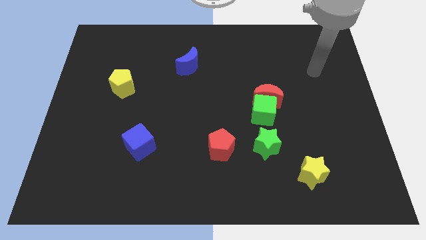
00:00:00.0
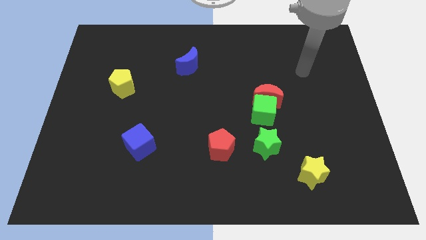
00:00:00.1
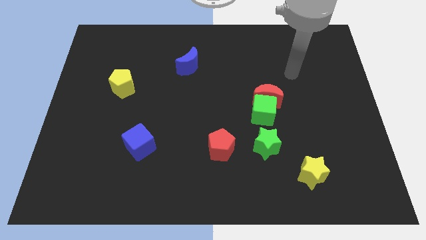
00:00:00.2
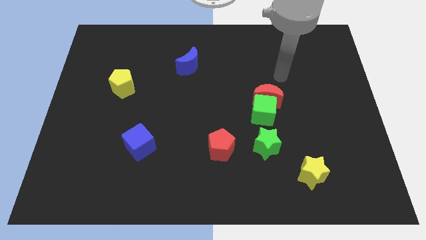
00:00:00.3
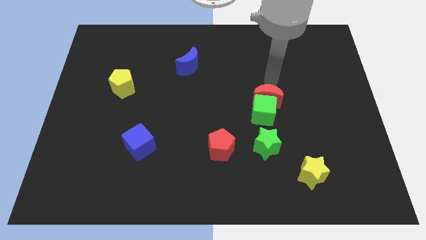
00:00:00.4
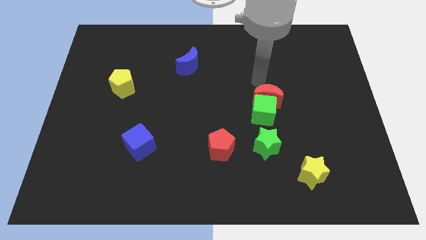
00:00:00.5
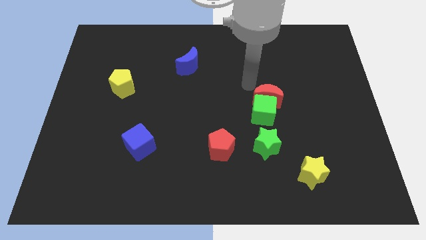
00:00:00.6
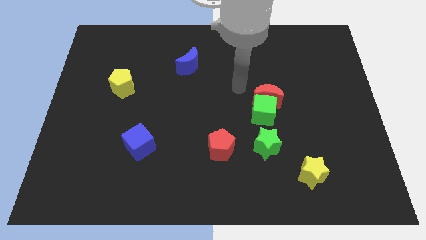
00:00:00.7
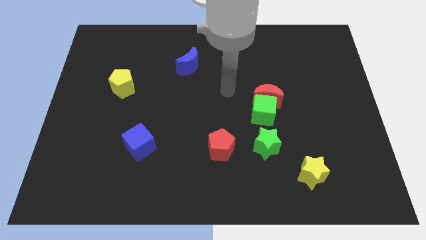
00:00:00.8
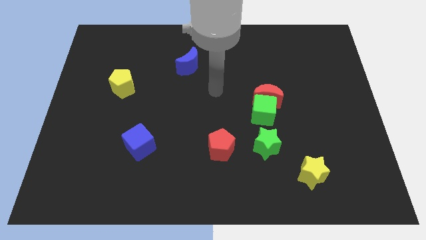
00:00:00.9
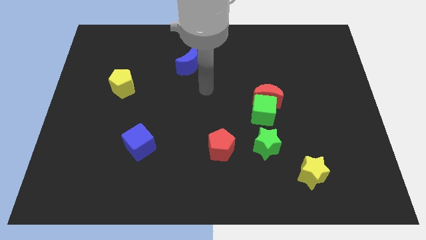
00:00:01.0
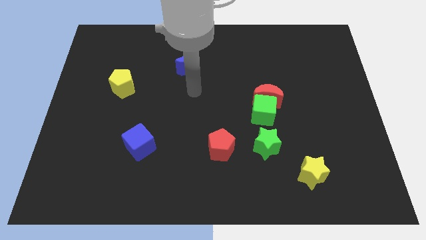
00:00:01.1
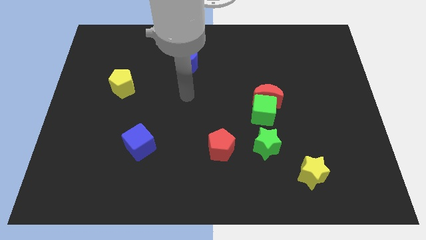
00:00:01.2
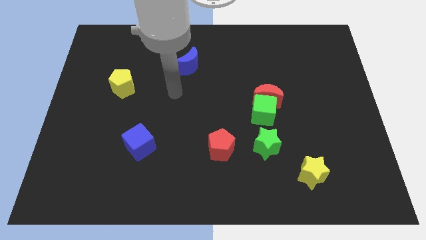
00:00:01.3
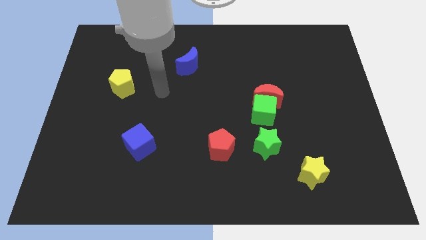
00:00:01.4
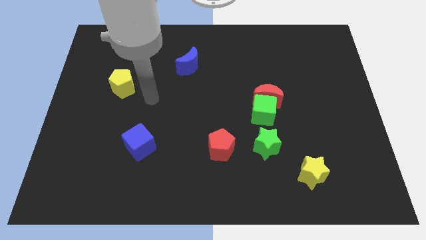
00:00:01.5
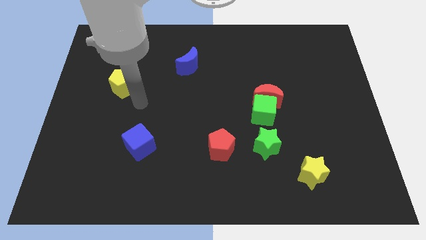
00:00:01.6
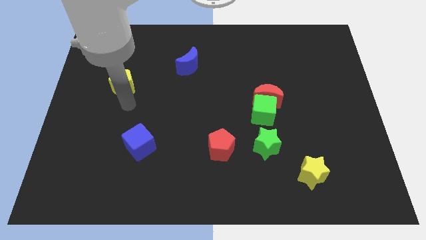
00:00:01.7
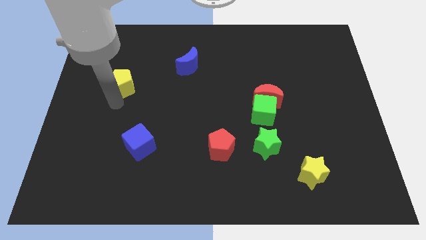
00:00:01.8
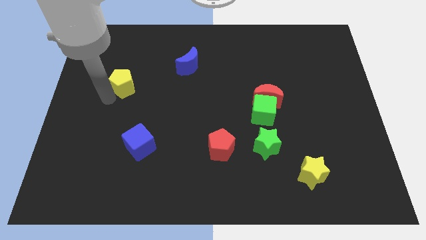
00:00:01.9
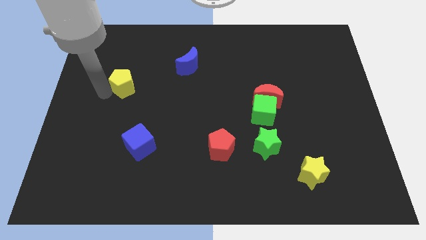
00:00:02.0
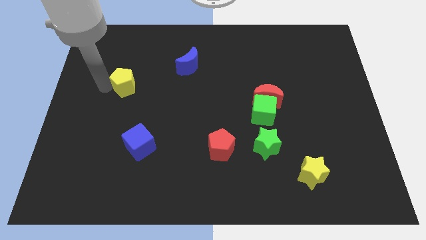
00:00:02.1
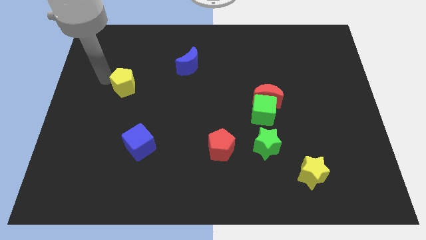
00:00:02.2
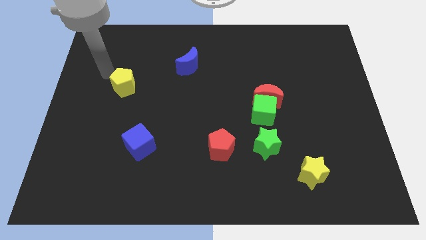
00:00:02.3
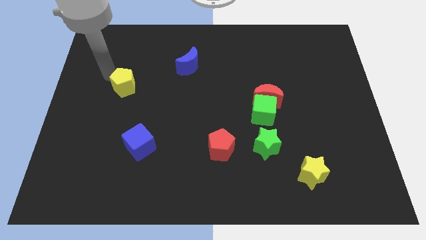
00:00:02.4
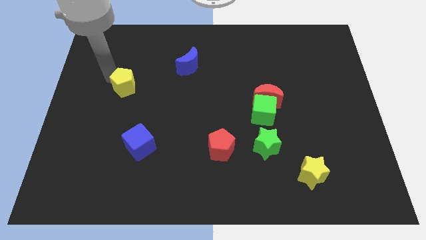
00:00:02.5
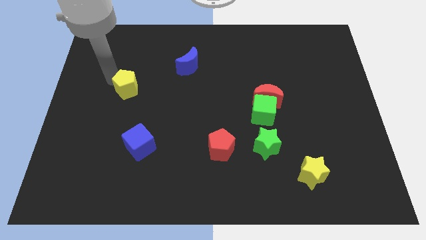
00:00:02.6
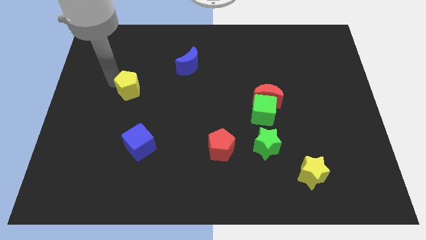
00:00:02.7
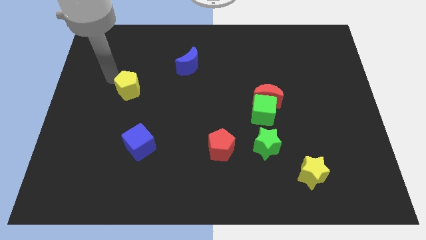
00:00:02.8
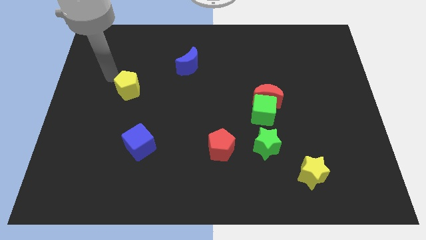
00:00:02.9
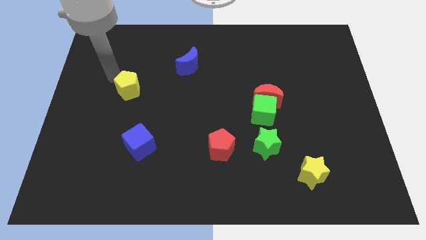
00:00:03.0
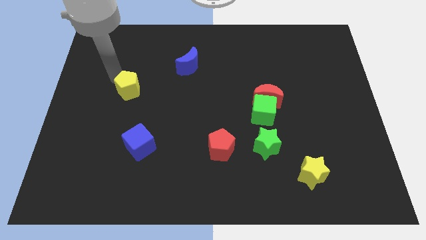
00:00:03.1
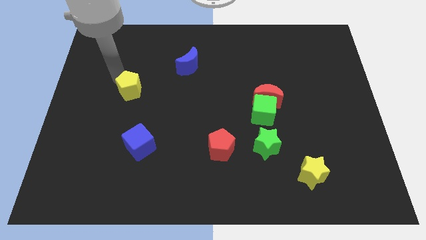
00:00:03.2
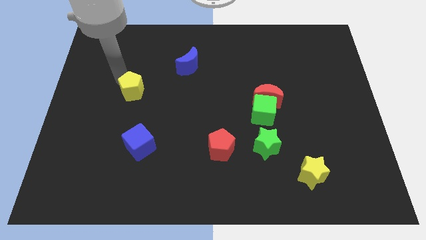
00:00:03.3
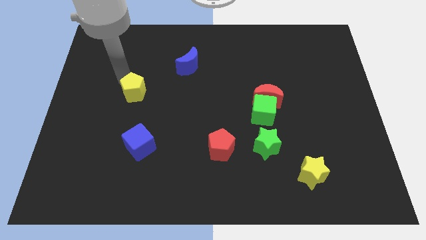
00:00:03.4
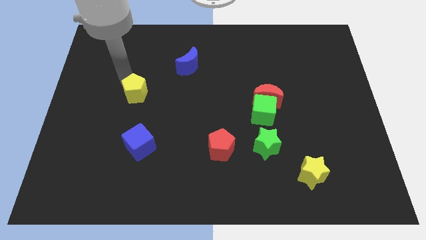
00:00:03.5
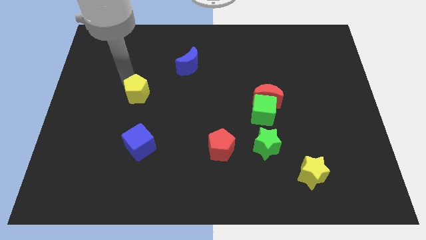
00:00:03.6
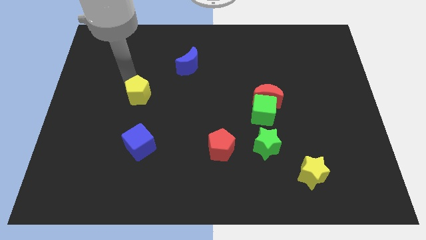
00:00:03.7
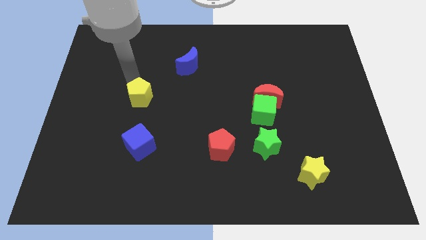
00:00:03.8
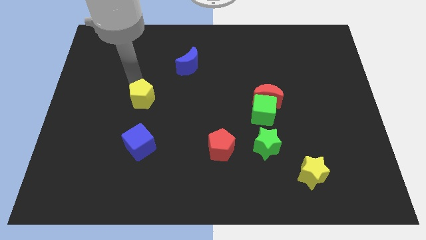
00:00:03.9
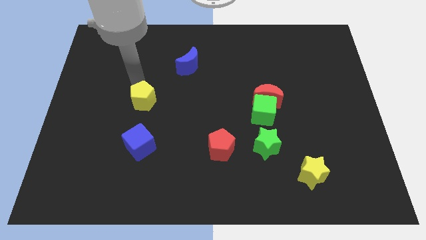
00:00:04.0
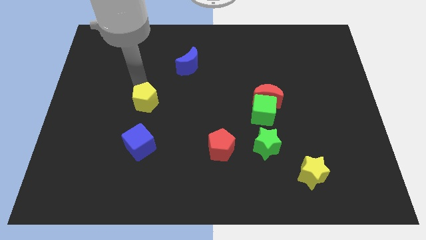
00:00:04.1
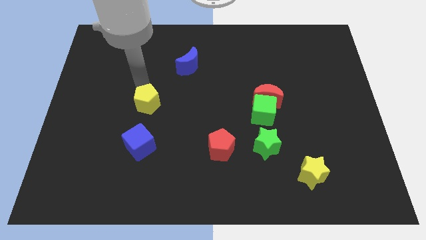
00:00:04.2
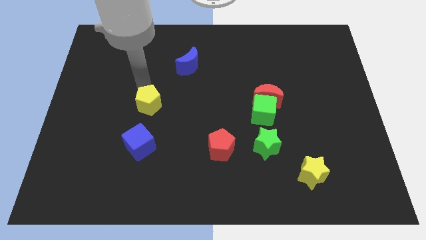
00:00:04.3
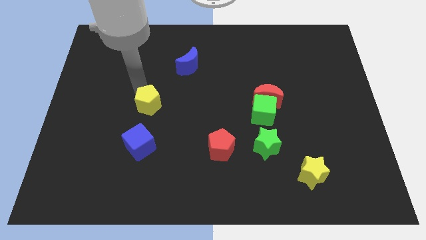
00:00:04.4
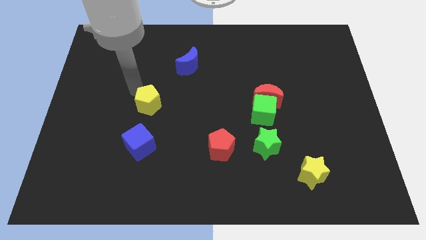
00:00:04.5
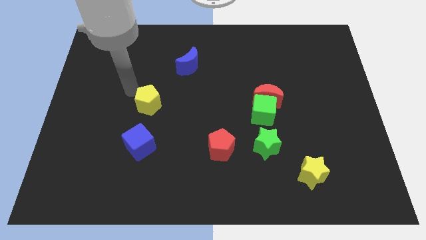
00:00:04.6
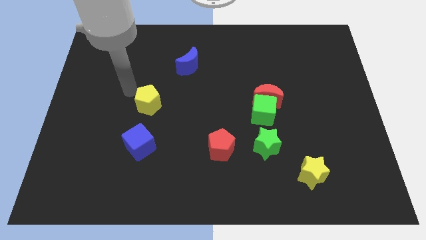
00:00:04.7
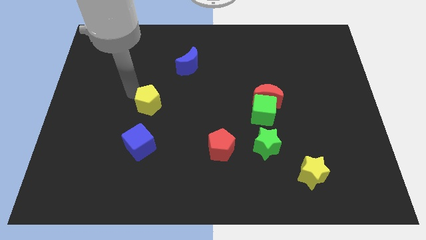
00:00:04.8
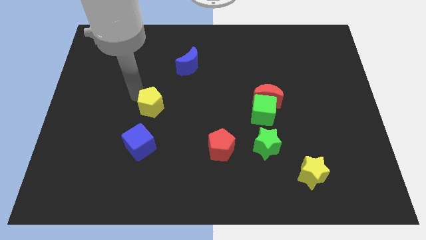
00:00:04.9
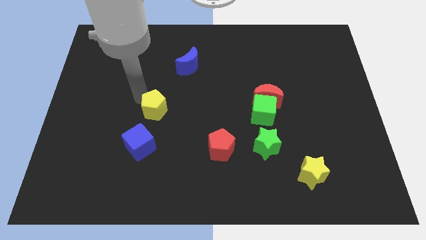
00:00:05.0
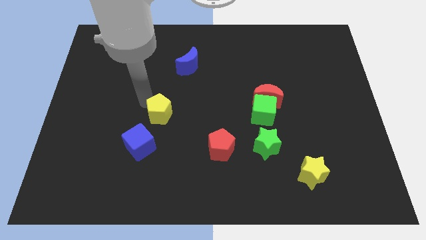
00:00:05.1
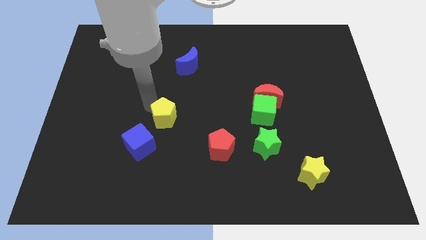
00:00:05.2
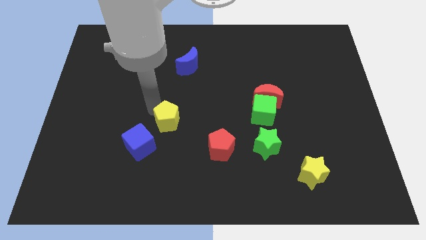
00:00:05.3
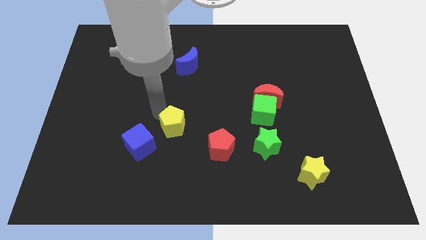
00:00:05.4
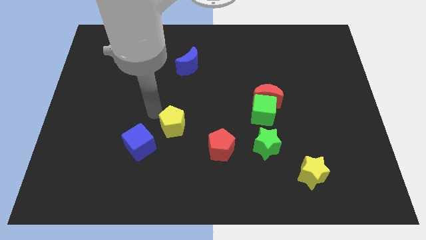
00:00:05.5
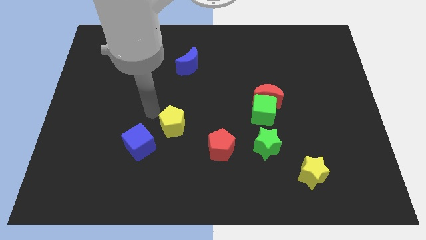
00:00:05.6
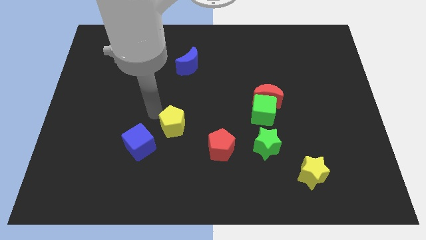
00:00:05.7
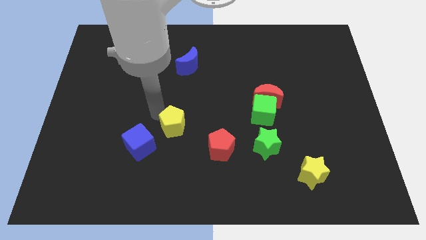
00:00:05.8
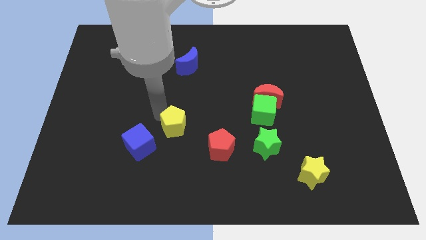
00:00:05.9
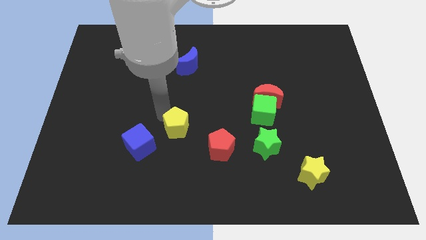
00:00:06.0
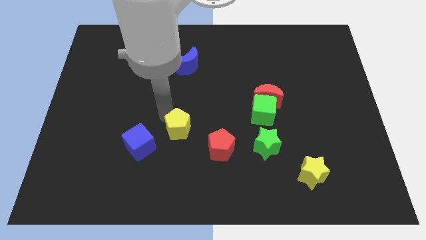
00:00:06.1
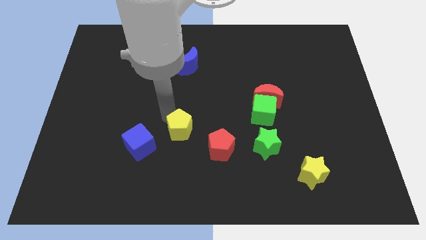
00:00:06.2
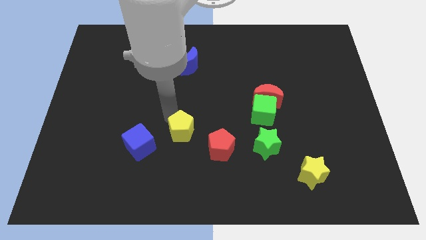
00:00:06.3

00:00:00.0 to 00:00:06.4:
push the yellow pentagon downwards and to the right diagonally

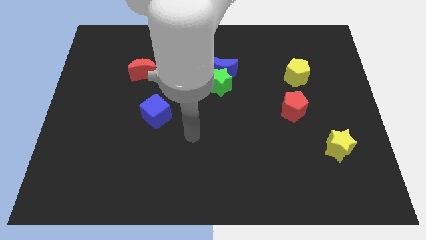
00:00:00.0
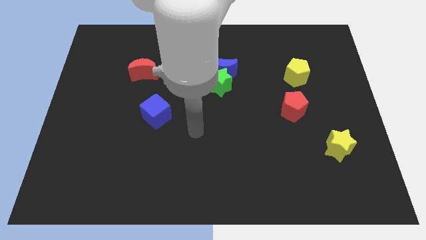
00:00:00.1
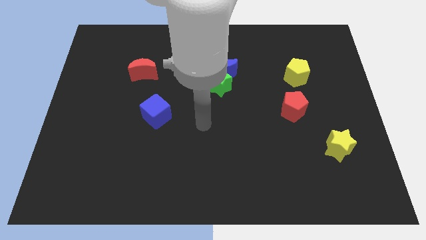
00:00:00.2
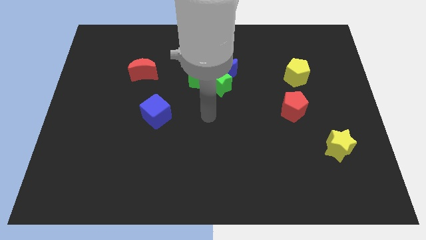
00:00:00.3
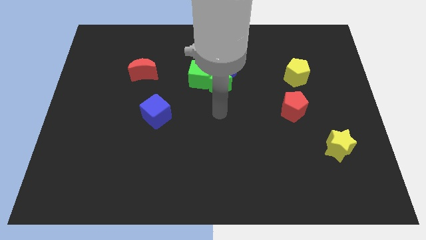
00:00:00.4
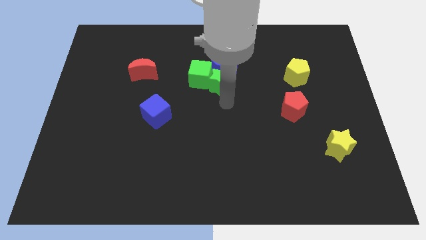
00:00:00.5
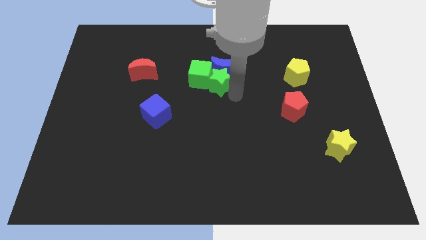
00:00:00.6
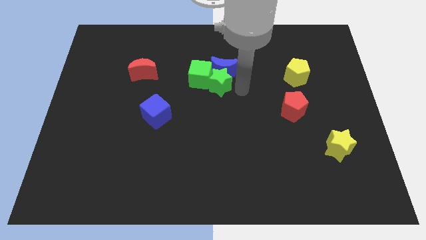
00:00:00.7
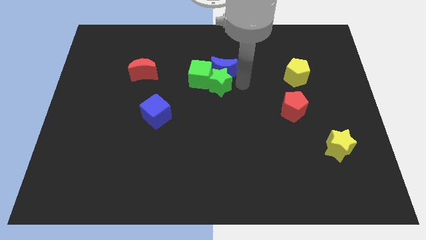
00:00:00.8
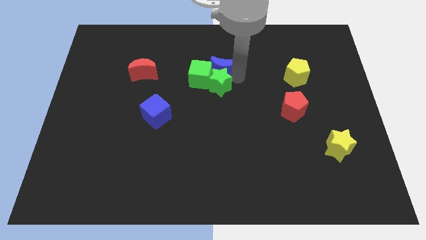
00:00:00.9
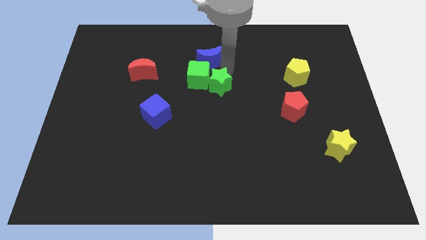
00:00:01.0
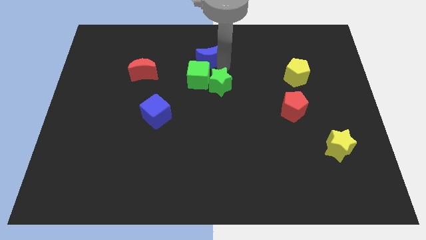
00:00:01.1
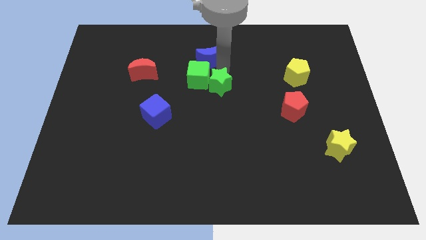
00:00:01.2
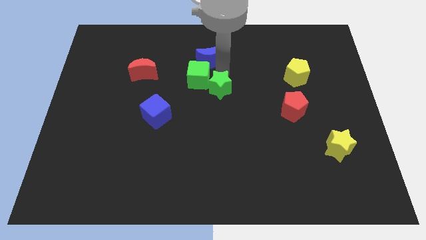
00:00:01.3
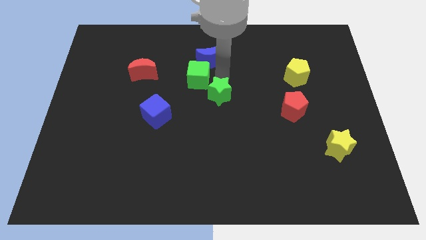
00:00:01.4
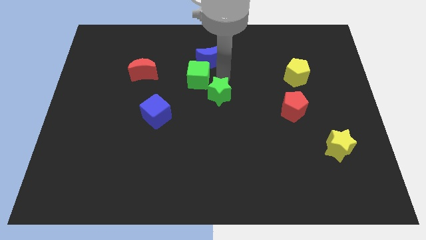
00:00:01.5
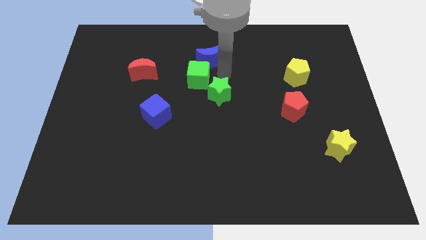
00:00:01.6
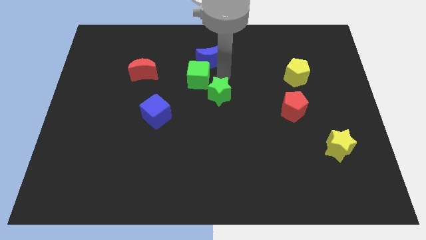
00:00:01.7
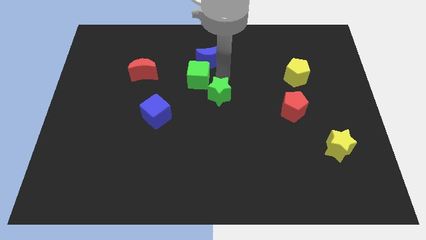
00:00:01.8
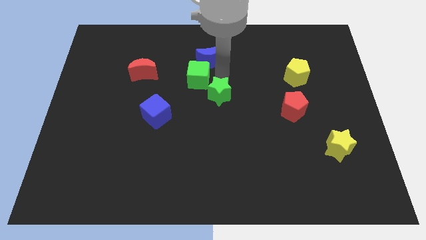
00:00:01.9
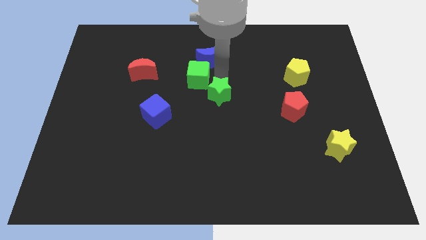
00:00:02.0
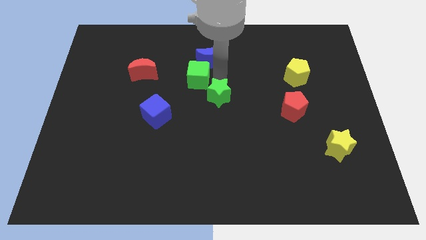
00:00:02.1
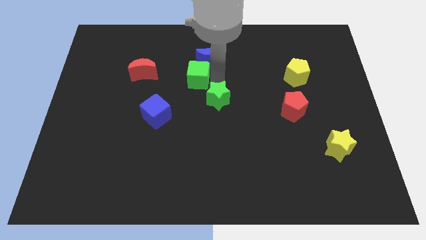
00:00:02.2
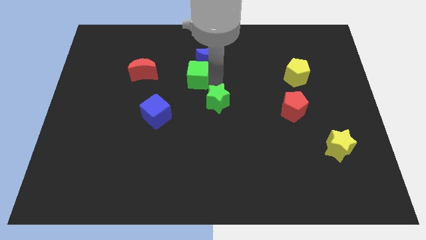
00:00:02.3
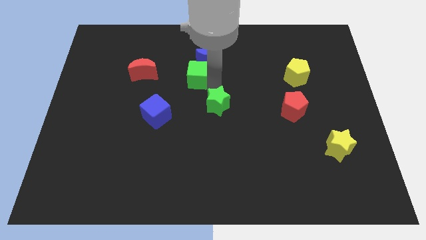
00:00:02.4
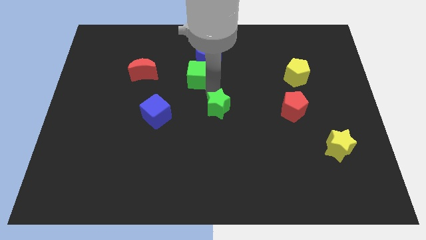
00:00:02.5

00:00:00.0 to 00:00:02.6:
slide the green star somewhat down
